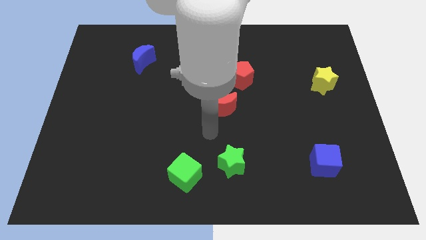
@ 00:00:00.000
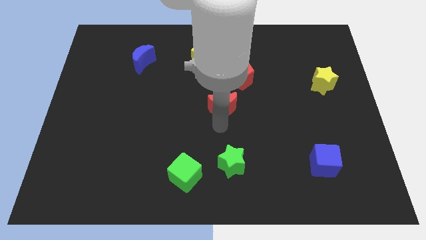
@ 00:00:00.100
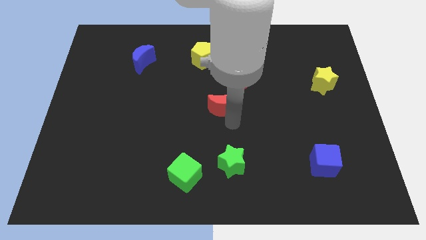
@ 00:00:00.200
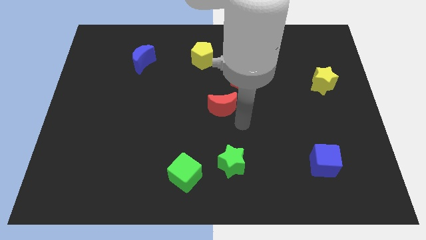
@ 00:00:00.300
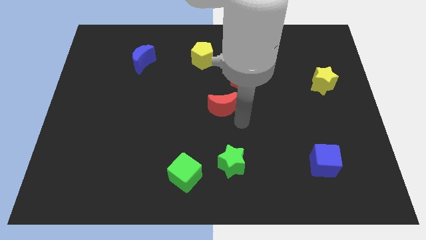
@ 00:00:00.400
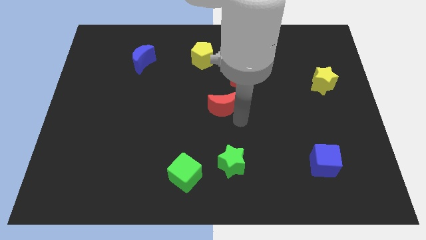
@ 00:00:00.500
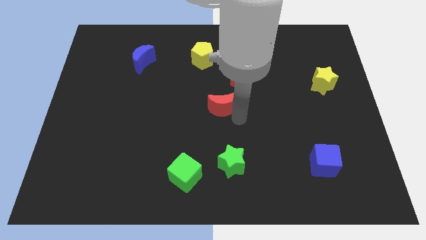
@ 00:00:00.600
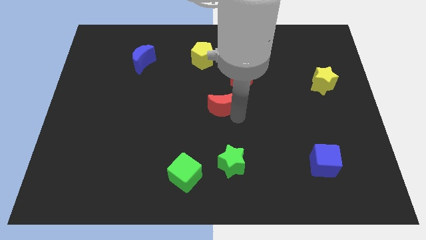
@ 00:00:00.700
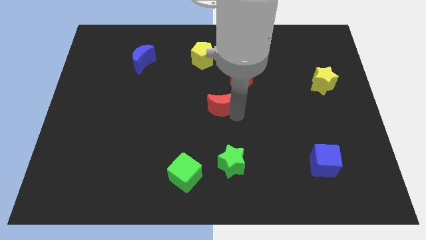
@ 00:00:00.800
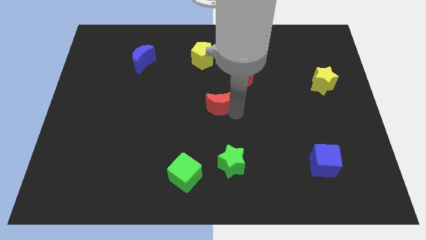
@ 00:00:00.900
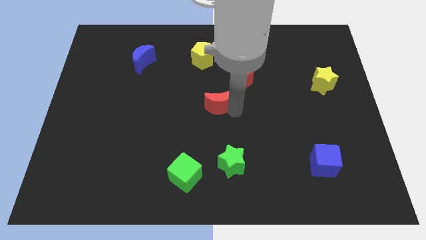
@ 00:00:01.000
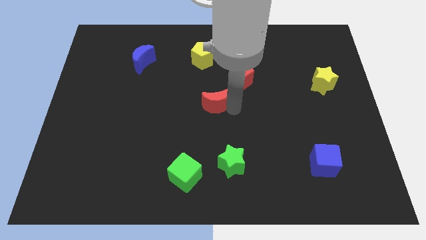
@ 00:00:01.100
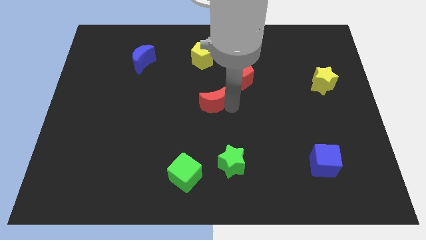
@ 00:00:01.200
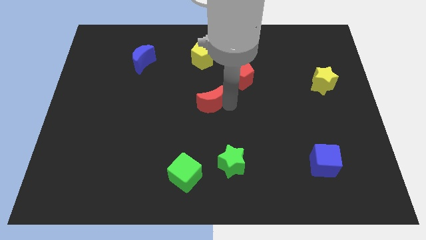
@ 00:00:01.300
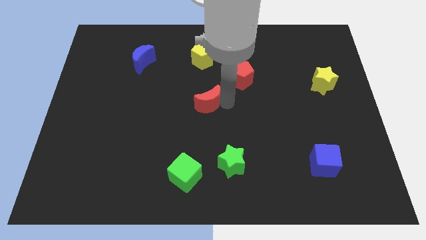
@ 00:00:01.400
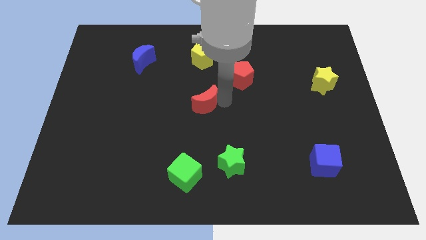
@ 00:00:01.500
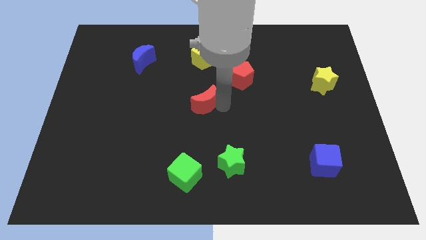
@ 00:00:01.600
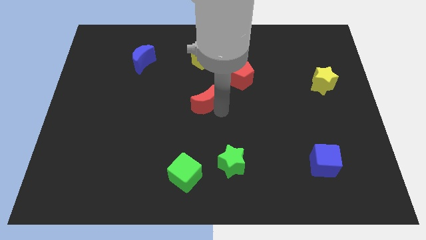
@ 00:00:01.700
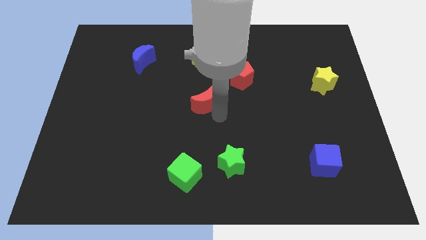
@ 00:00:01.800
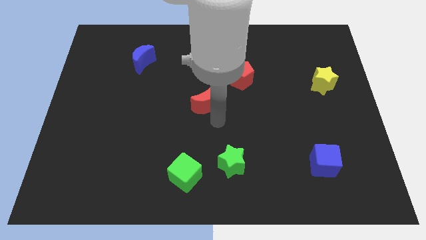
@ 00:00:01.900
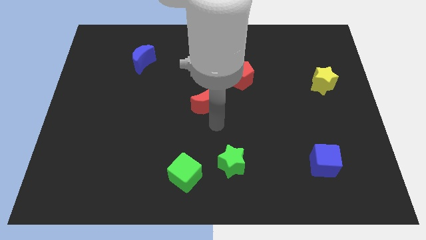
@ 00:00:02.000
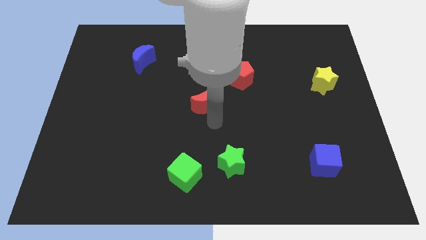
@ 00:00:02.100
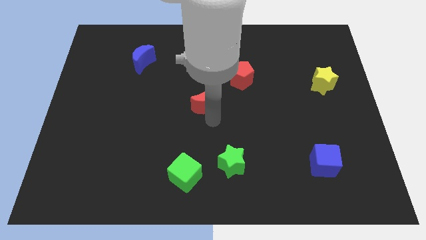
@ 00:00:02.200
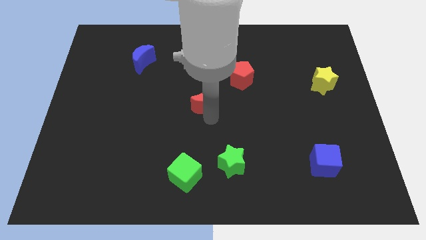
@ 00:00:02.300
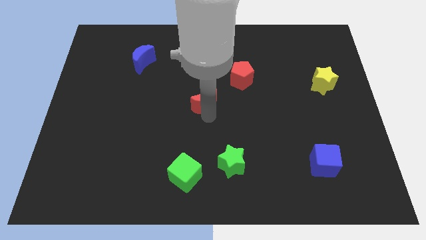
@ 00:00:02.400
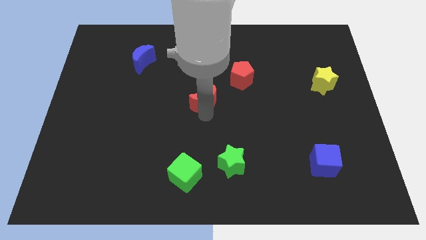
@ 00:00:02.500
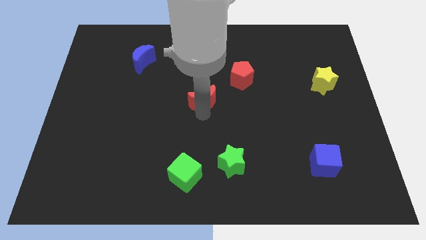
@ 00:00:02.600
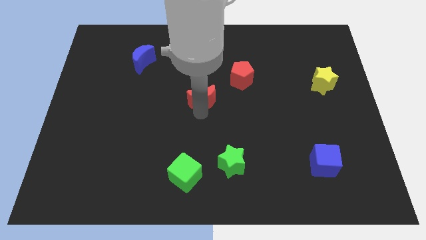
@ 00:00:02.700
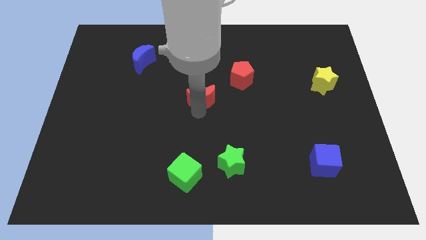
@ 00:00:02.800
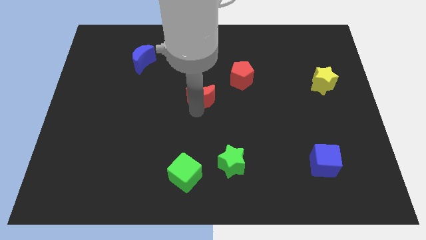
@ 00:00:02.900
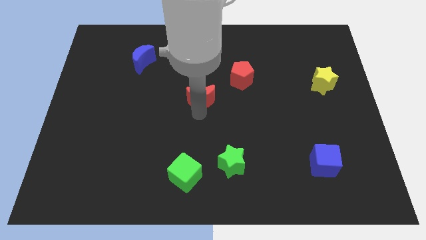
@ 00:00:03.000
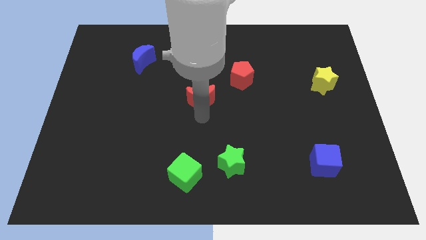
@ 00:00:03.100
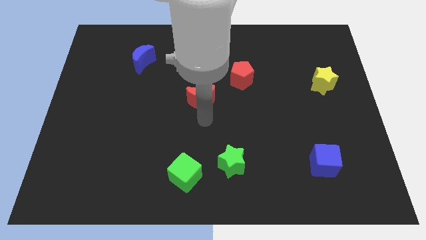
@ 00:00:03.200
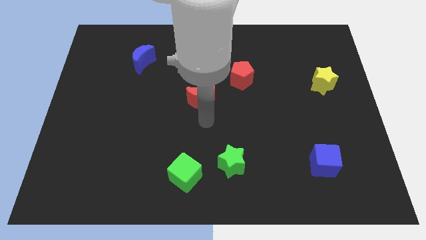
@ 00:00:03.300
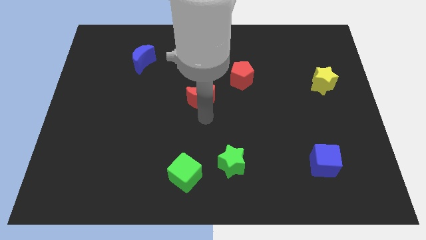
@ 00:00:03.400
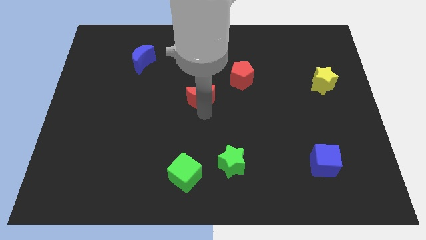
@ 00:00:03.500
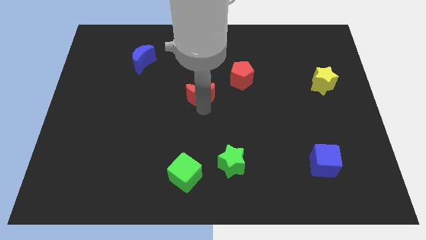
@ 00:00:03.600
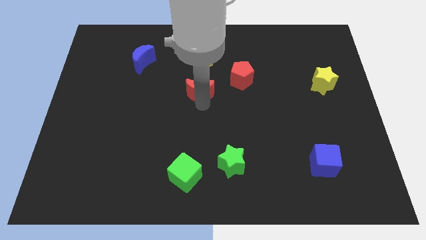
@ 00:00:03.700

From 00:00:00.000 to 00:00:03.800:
slightly push the red moon upwards and then left

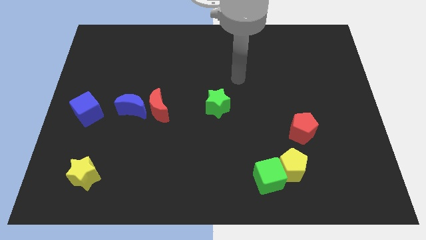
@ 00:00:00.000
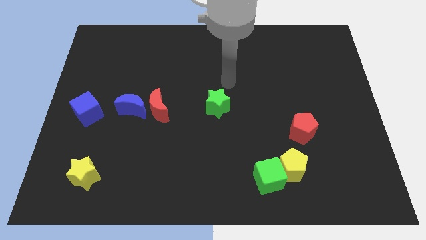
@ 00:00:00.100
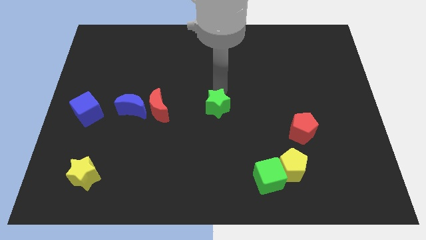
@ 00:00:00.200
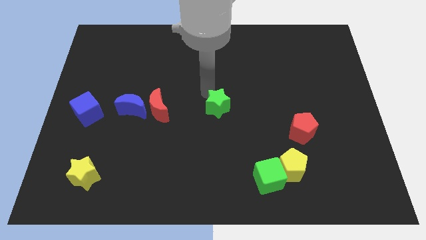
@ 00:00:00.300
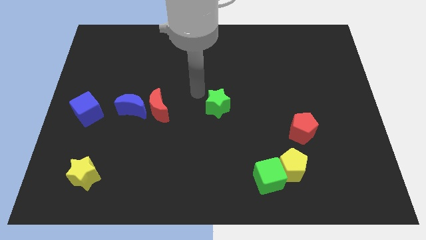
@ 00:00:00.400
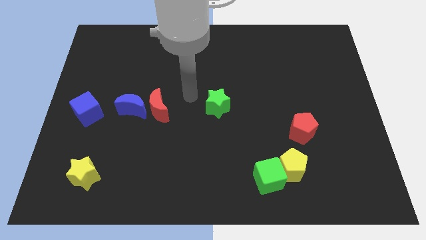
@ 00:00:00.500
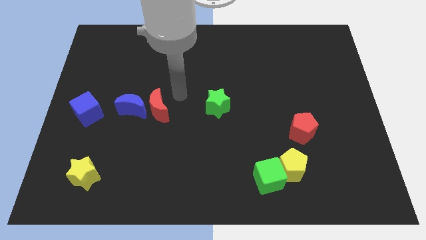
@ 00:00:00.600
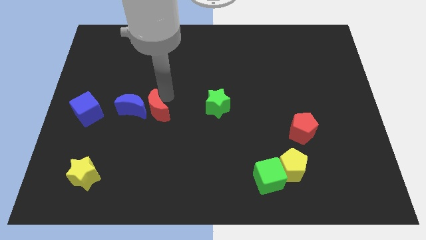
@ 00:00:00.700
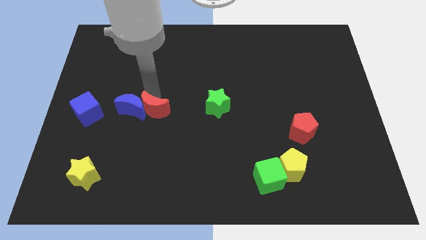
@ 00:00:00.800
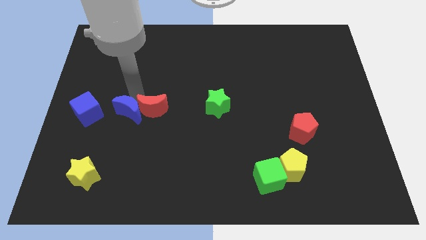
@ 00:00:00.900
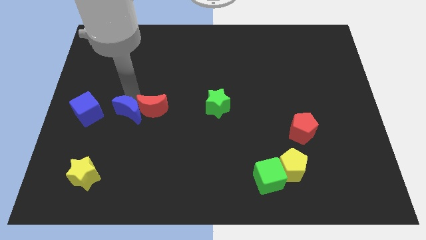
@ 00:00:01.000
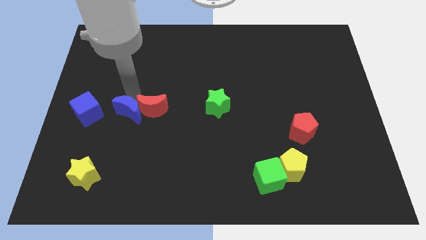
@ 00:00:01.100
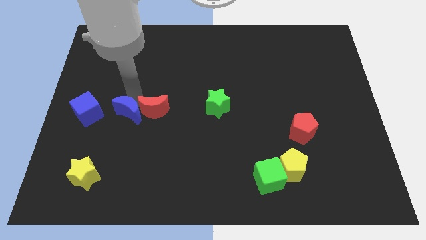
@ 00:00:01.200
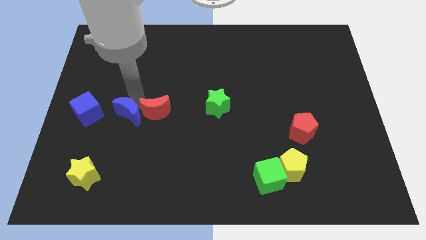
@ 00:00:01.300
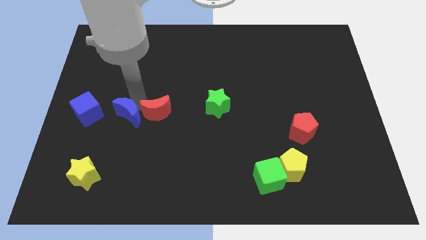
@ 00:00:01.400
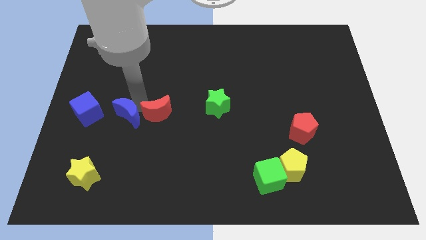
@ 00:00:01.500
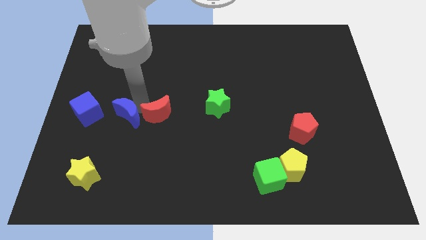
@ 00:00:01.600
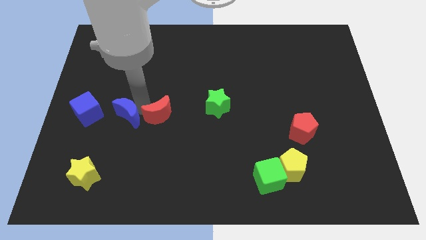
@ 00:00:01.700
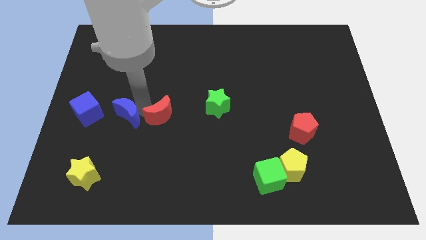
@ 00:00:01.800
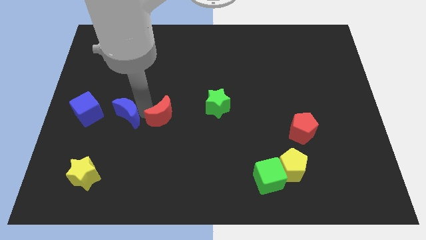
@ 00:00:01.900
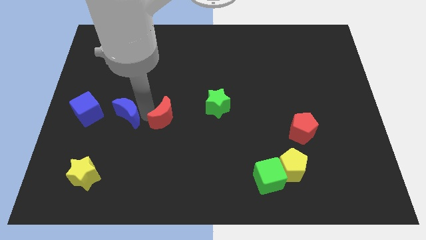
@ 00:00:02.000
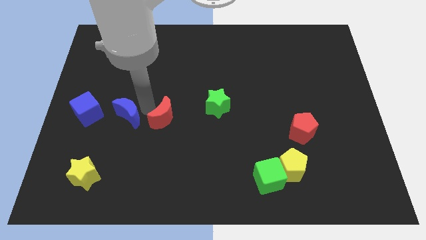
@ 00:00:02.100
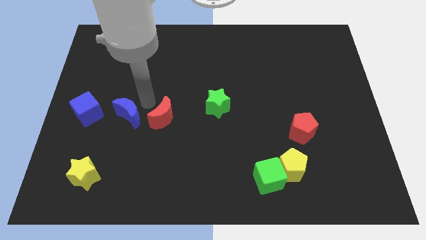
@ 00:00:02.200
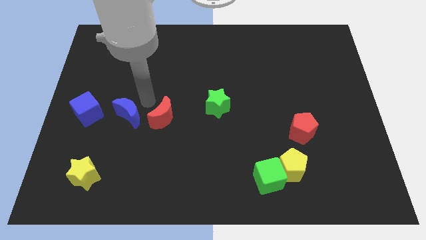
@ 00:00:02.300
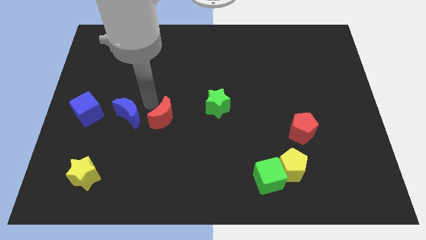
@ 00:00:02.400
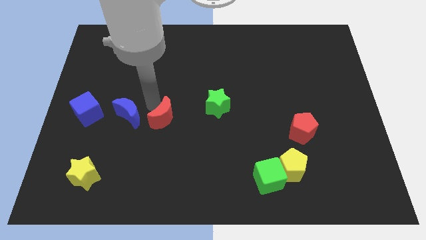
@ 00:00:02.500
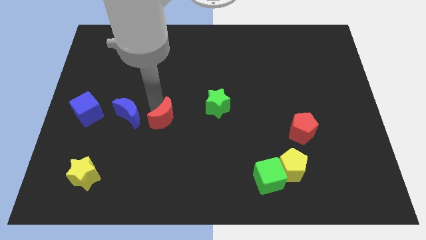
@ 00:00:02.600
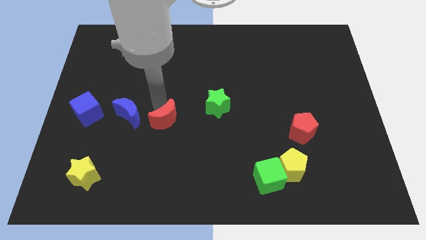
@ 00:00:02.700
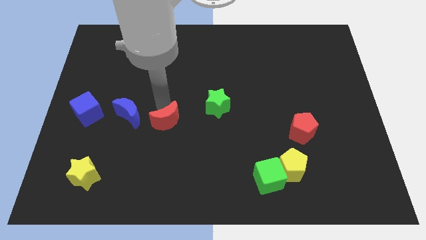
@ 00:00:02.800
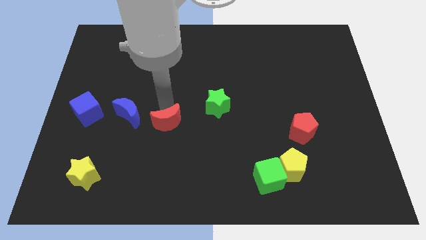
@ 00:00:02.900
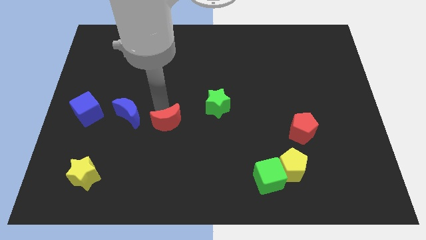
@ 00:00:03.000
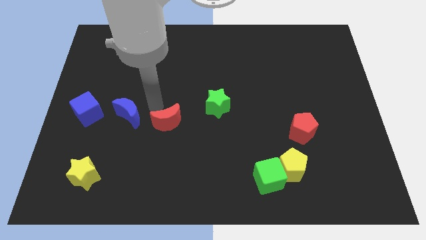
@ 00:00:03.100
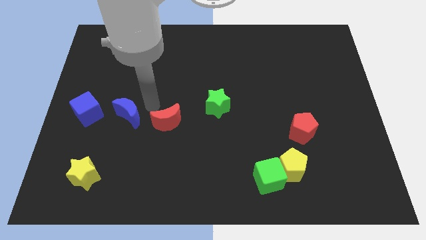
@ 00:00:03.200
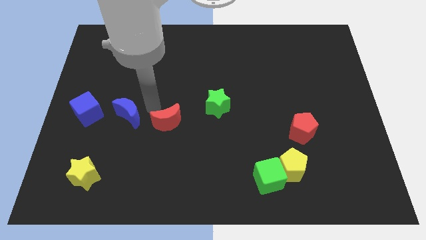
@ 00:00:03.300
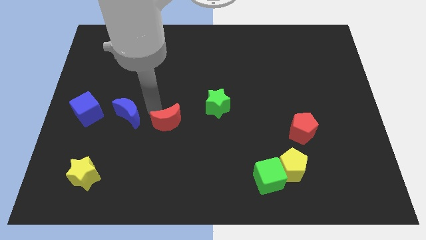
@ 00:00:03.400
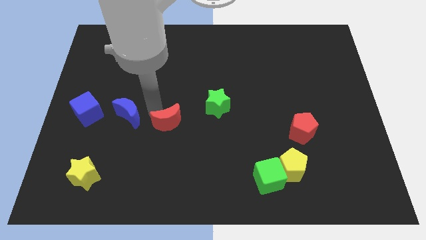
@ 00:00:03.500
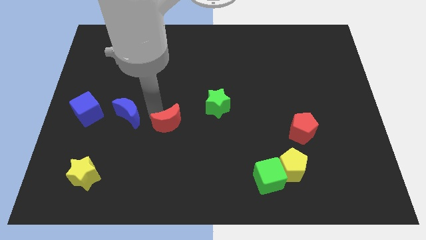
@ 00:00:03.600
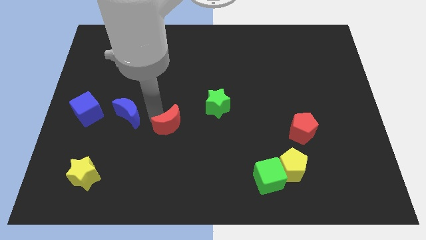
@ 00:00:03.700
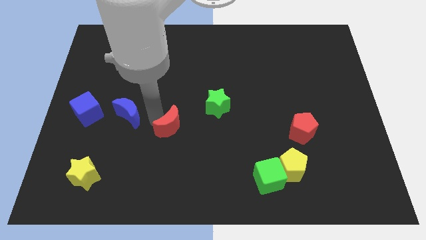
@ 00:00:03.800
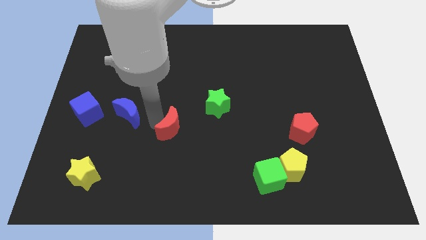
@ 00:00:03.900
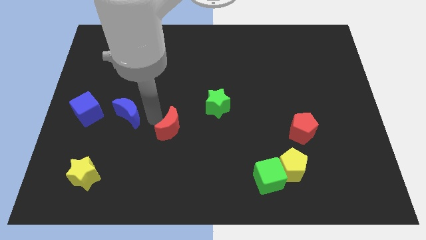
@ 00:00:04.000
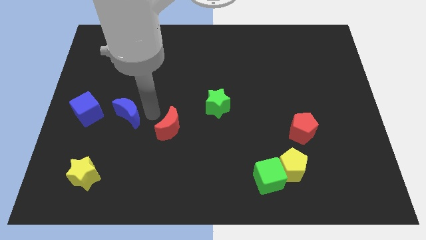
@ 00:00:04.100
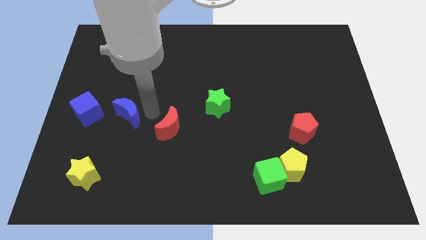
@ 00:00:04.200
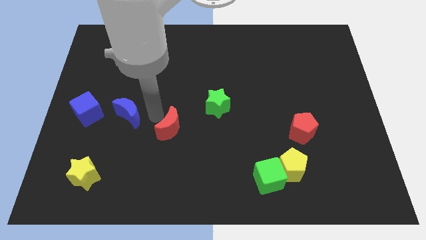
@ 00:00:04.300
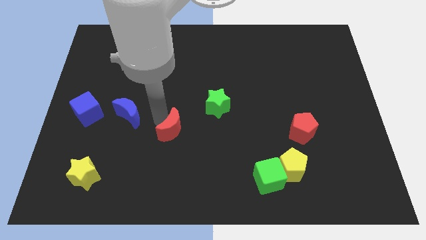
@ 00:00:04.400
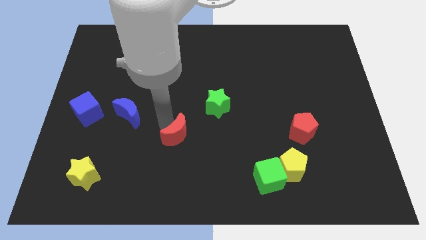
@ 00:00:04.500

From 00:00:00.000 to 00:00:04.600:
move the red moon a little downwards and to the right
